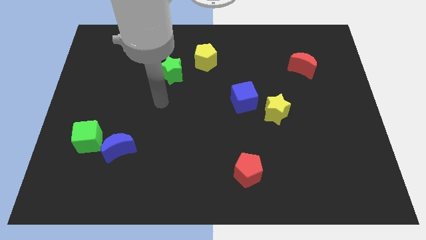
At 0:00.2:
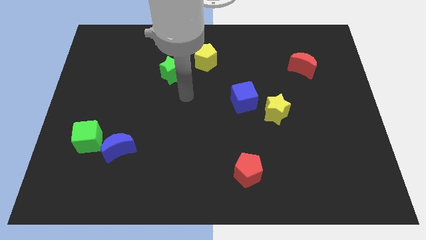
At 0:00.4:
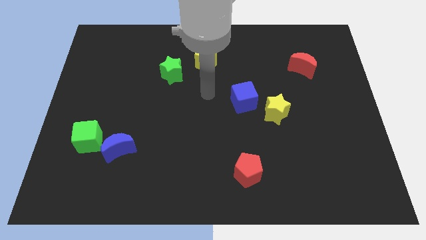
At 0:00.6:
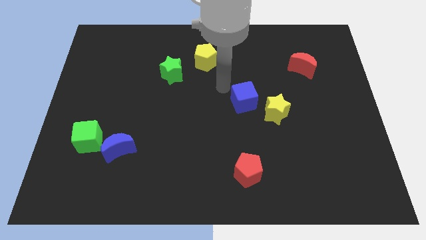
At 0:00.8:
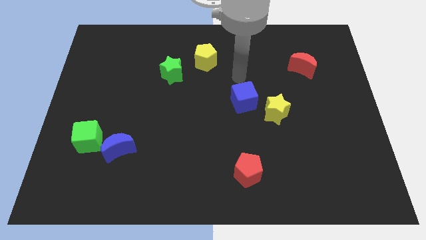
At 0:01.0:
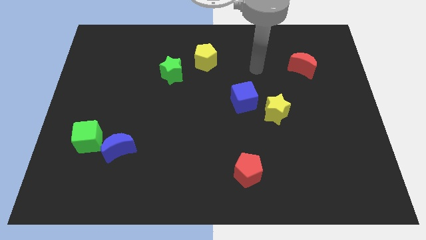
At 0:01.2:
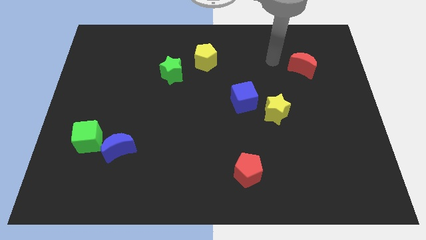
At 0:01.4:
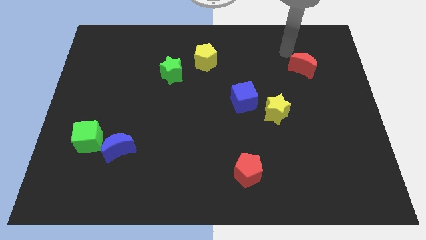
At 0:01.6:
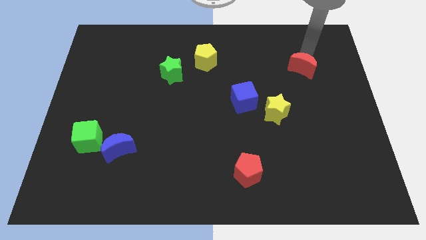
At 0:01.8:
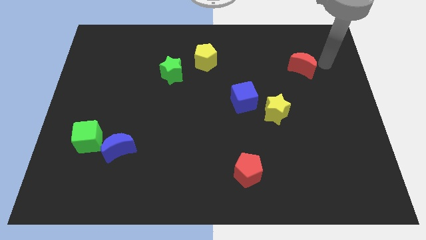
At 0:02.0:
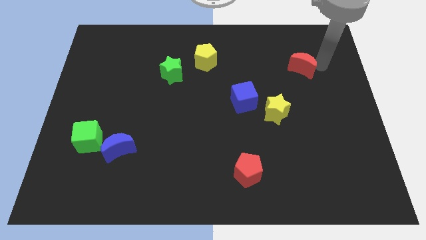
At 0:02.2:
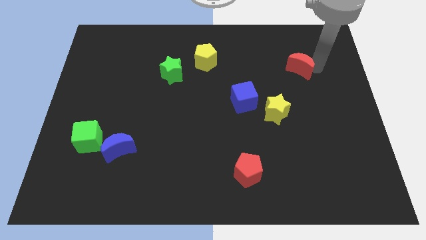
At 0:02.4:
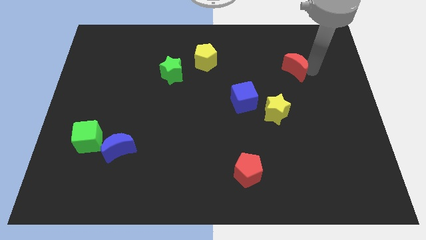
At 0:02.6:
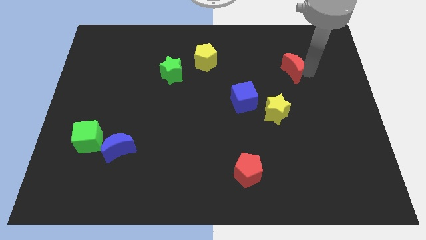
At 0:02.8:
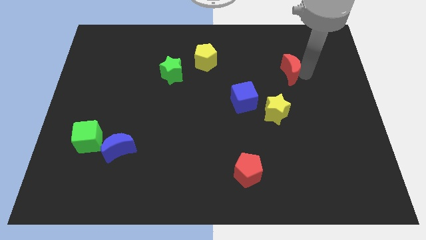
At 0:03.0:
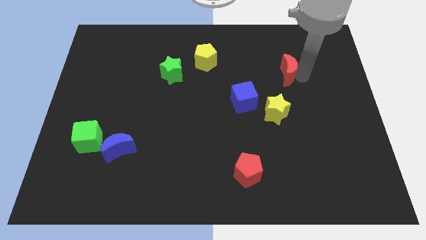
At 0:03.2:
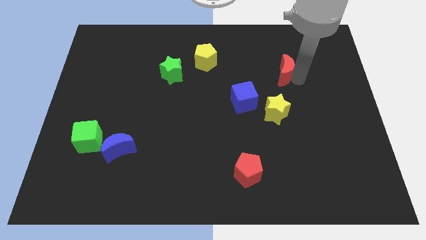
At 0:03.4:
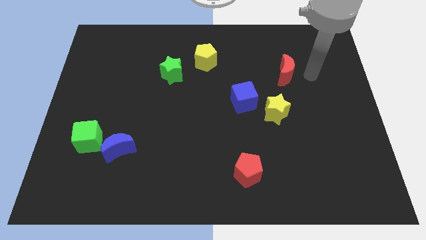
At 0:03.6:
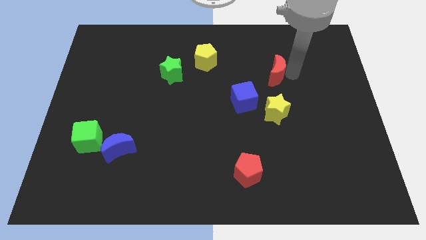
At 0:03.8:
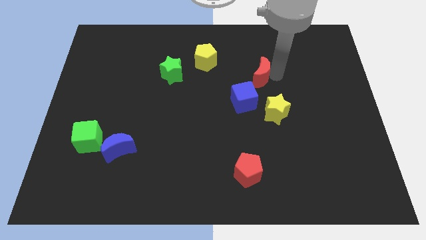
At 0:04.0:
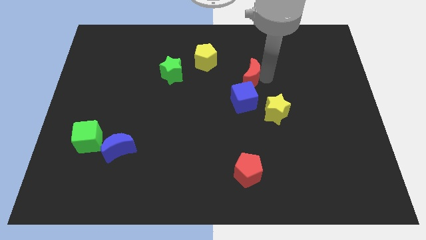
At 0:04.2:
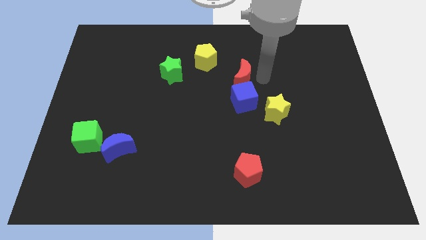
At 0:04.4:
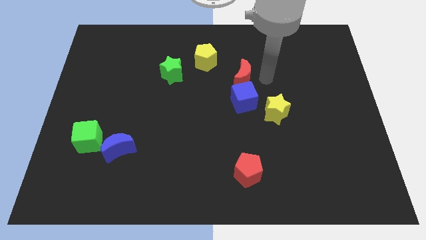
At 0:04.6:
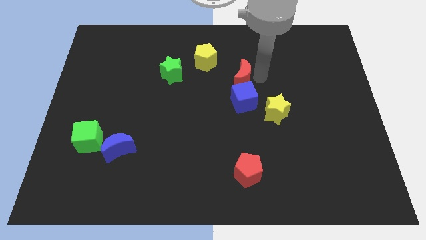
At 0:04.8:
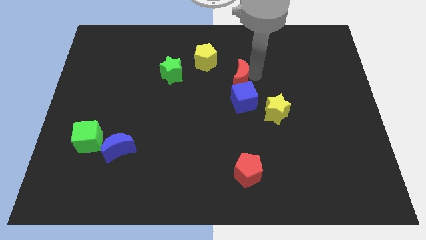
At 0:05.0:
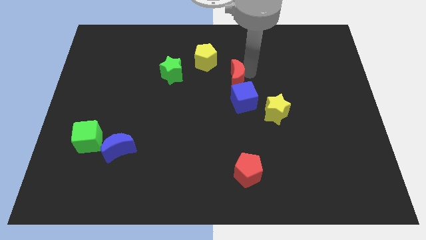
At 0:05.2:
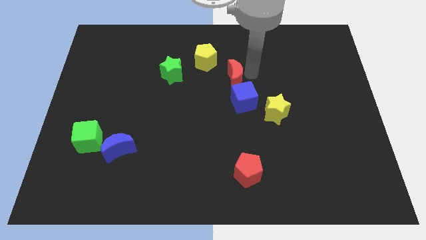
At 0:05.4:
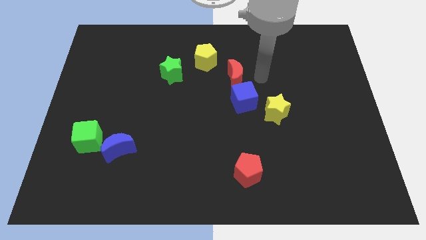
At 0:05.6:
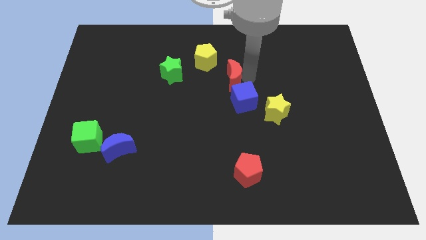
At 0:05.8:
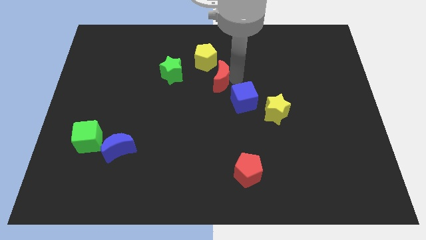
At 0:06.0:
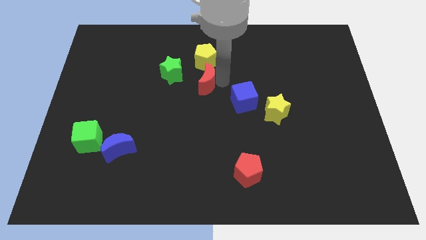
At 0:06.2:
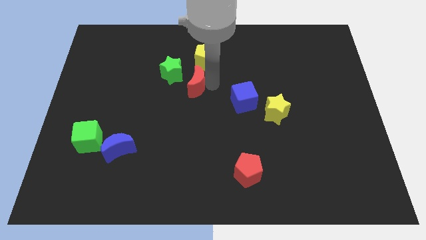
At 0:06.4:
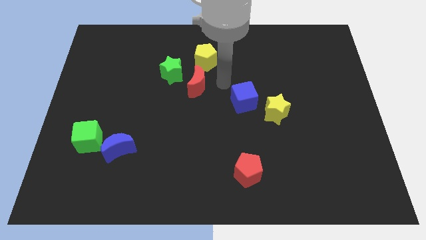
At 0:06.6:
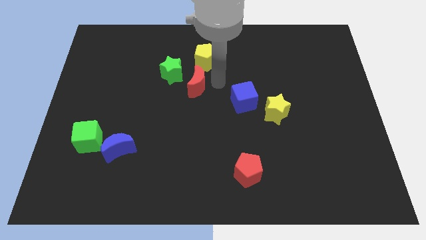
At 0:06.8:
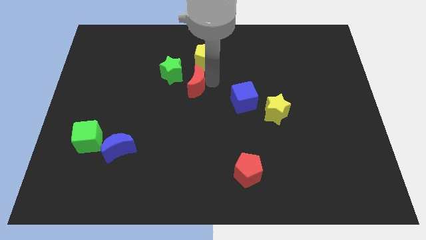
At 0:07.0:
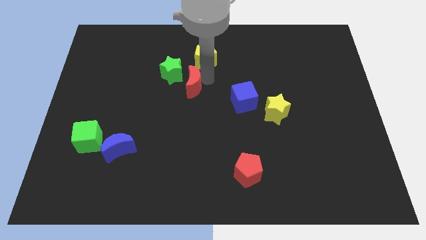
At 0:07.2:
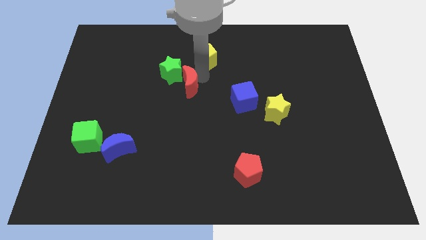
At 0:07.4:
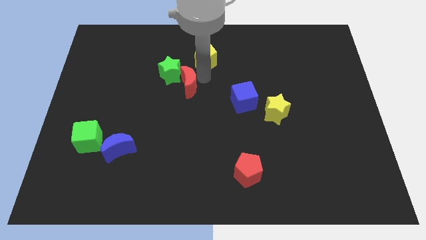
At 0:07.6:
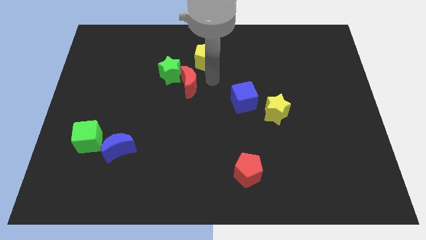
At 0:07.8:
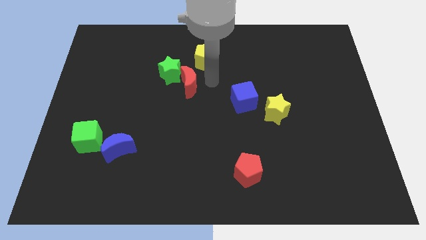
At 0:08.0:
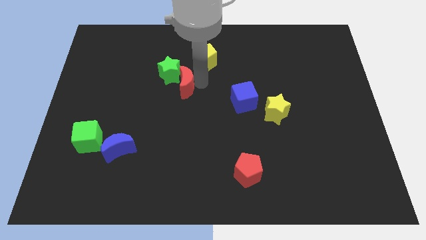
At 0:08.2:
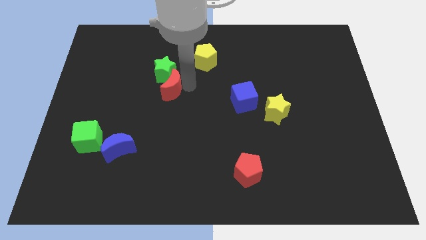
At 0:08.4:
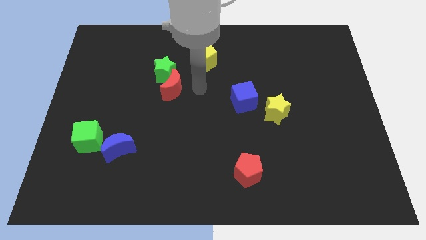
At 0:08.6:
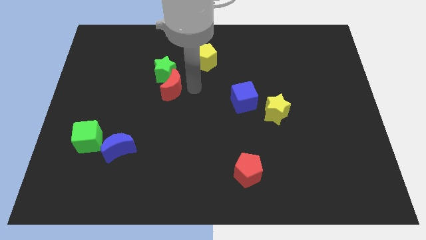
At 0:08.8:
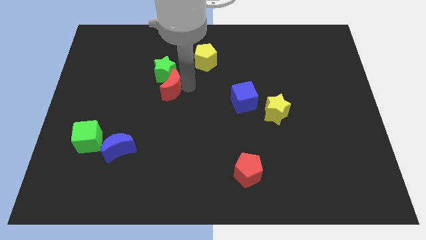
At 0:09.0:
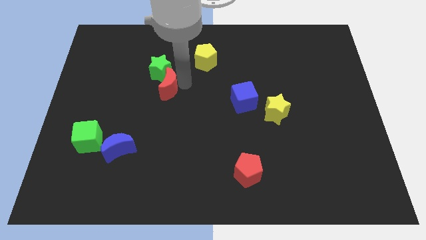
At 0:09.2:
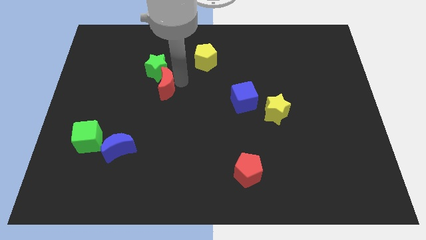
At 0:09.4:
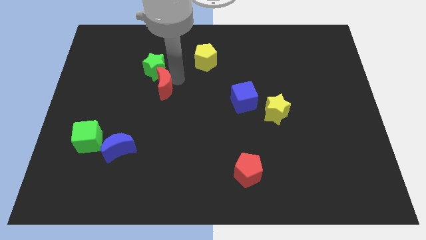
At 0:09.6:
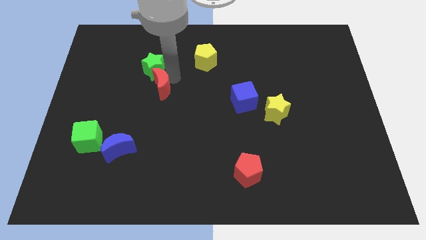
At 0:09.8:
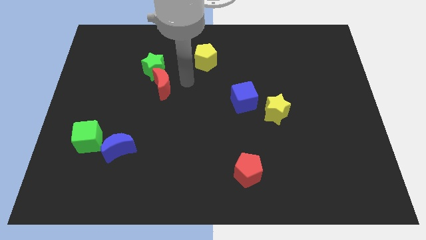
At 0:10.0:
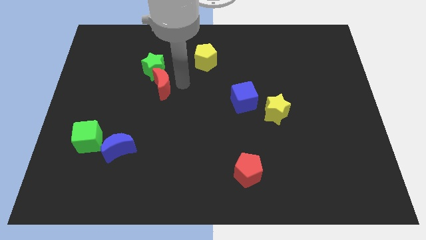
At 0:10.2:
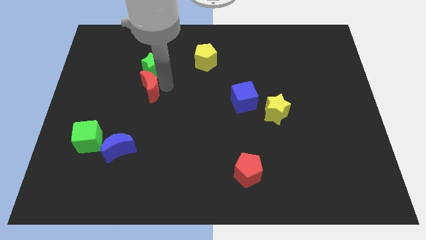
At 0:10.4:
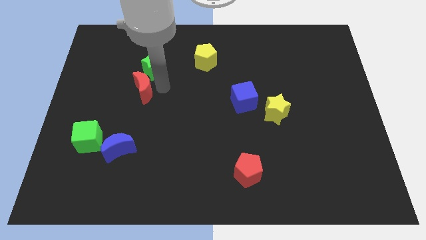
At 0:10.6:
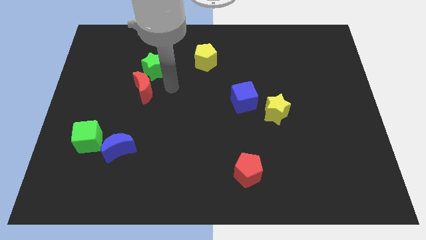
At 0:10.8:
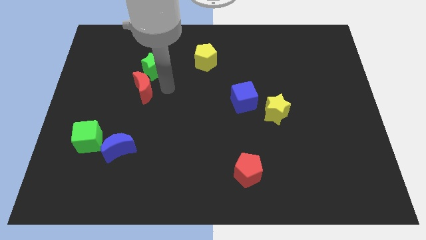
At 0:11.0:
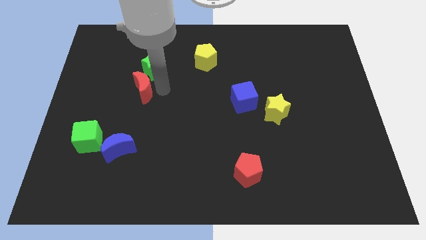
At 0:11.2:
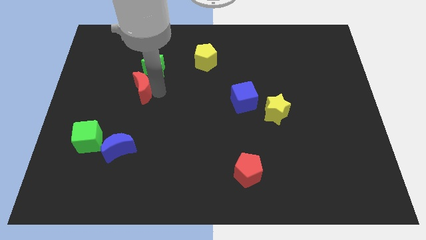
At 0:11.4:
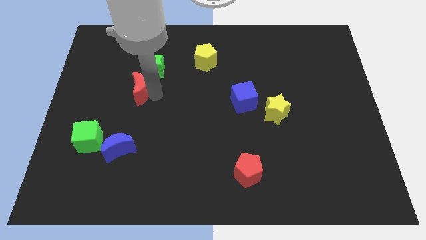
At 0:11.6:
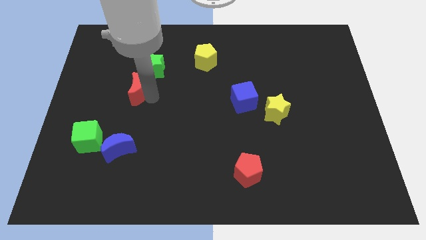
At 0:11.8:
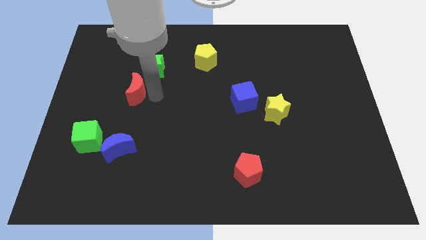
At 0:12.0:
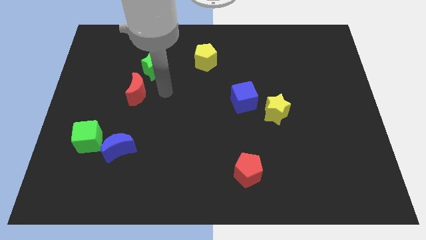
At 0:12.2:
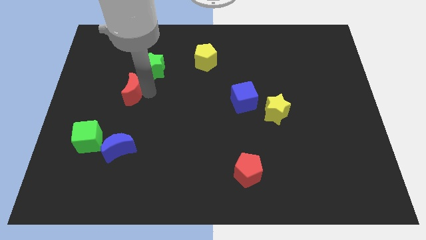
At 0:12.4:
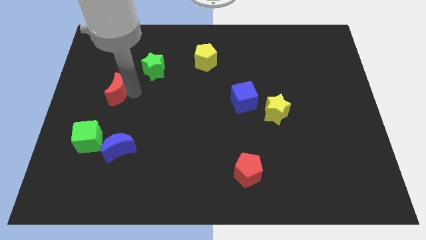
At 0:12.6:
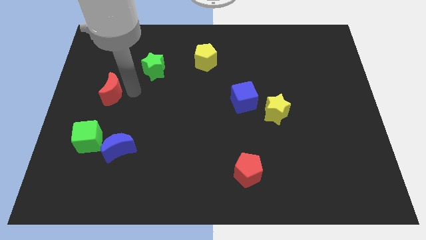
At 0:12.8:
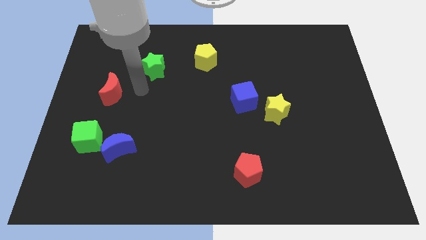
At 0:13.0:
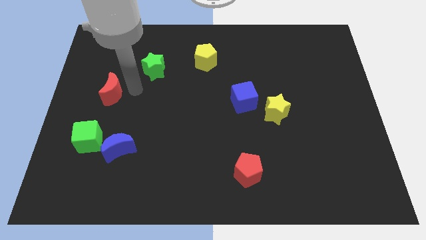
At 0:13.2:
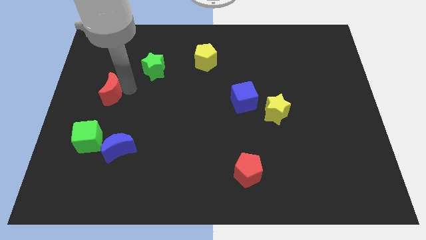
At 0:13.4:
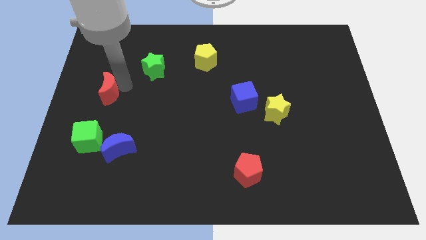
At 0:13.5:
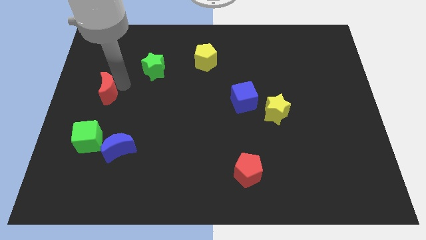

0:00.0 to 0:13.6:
put the red moon to the left side of the board

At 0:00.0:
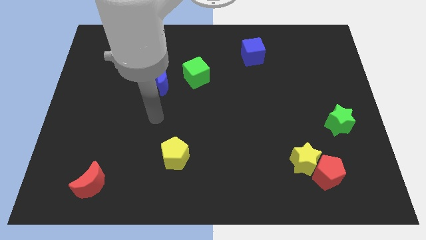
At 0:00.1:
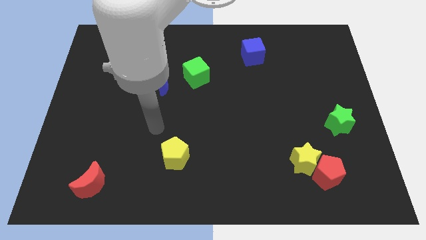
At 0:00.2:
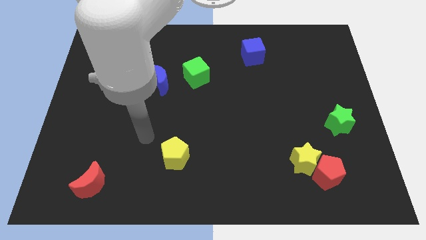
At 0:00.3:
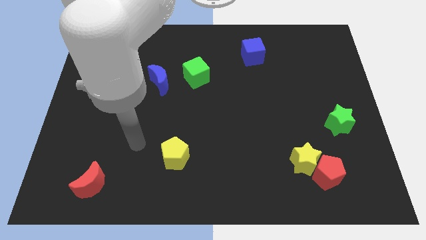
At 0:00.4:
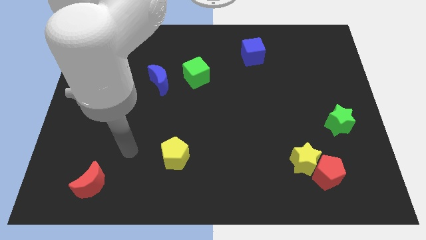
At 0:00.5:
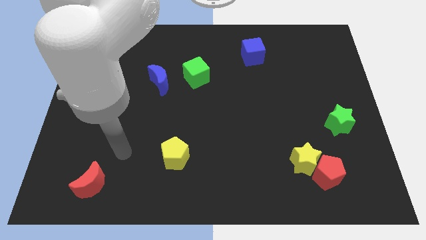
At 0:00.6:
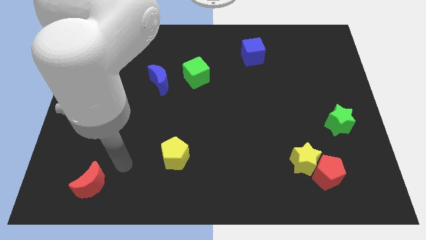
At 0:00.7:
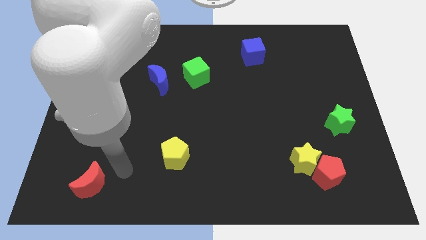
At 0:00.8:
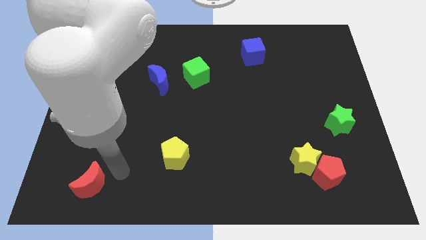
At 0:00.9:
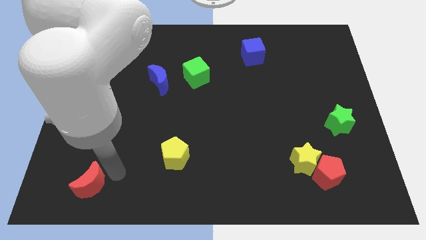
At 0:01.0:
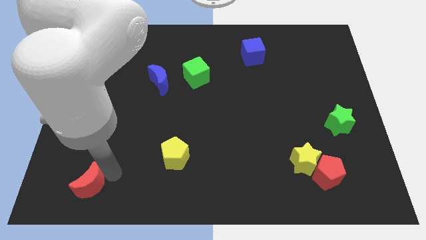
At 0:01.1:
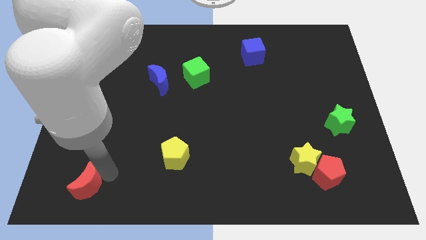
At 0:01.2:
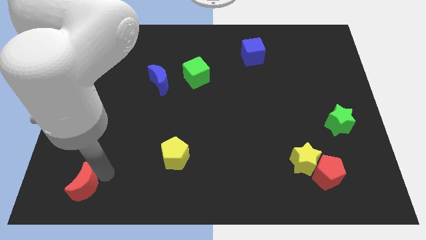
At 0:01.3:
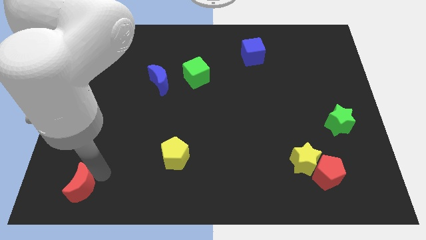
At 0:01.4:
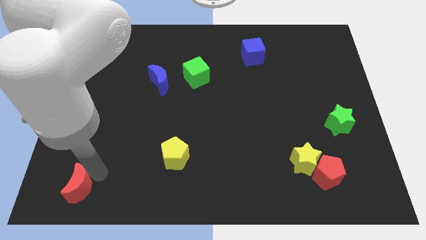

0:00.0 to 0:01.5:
put the red moon to the bottom left of the board
